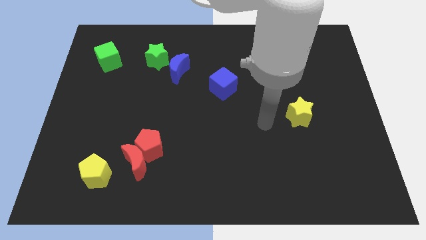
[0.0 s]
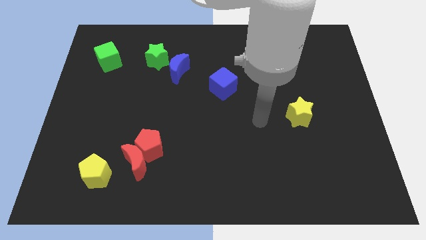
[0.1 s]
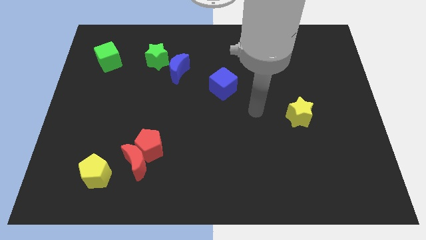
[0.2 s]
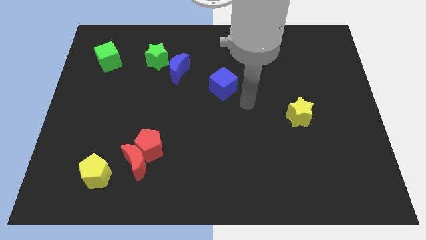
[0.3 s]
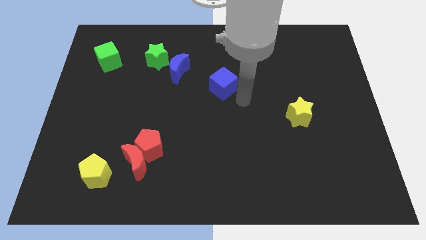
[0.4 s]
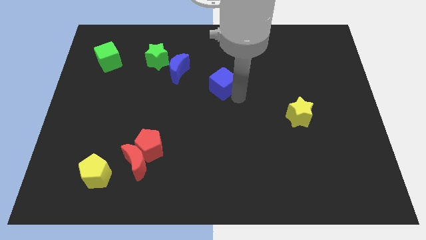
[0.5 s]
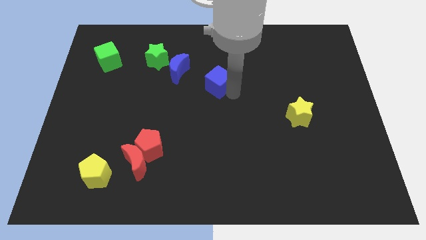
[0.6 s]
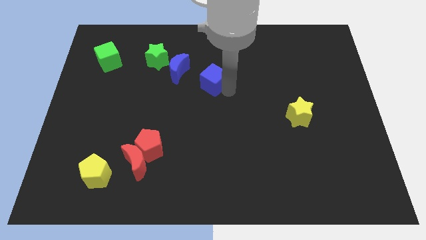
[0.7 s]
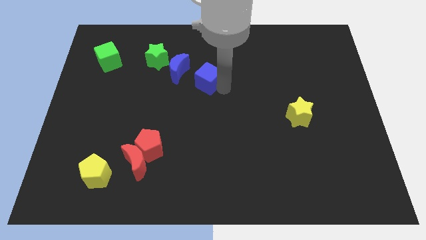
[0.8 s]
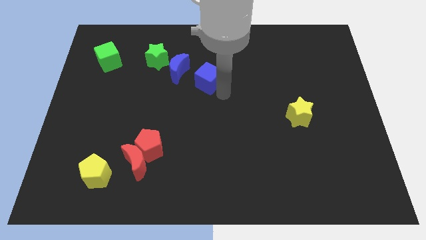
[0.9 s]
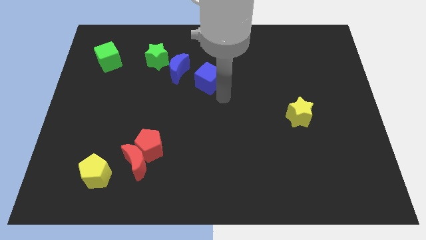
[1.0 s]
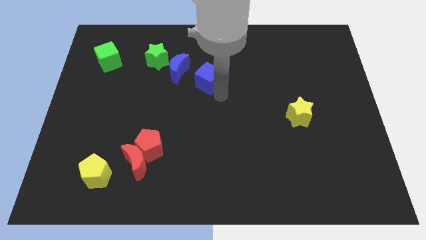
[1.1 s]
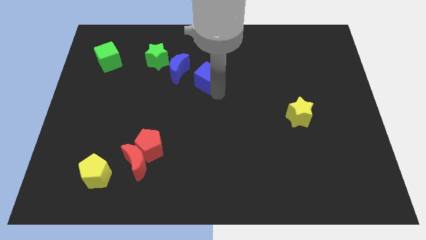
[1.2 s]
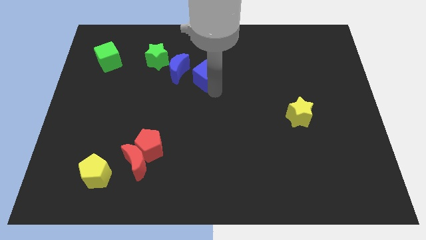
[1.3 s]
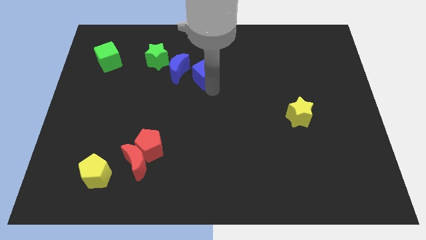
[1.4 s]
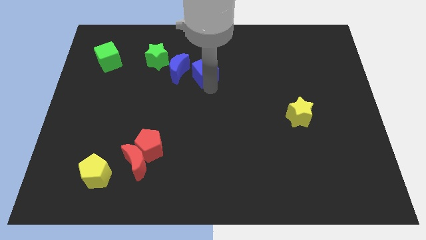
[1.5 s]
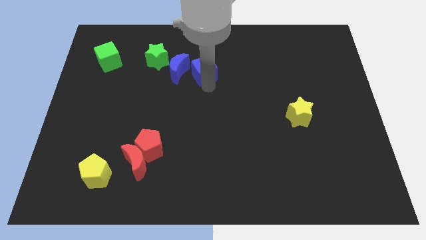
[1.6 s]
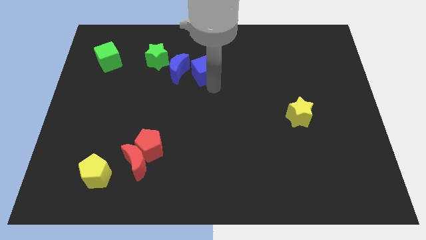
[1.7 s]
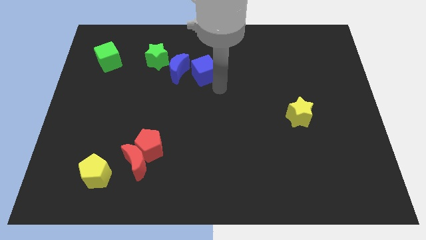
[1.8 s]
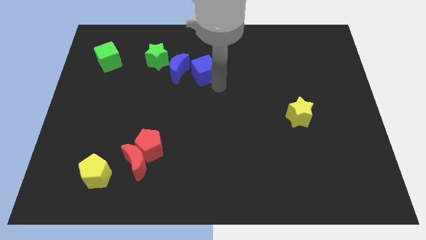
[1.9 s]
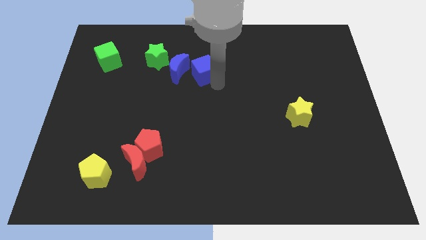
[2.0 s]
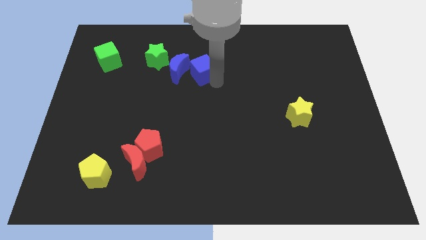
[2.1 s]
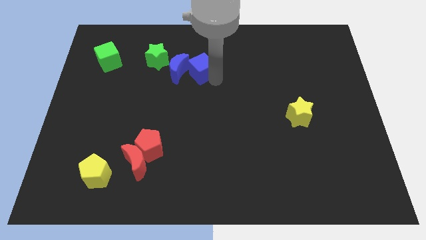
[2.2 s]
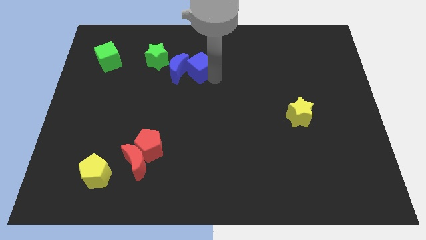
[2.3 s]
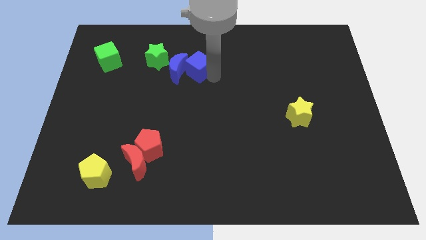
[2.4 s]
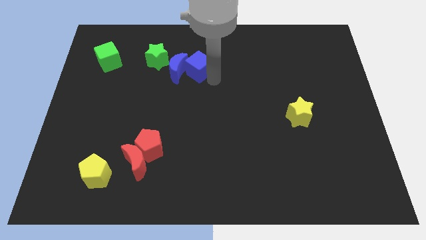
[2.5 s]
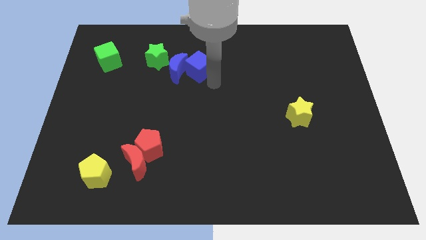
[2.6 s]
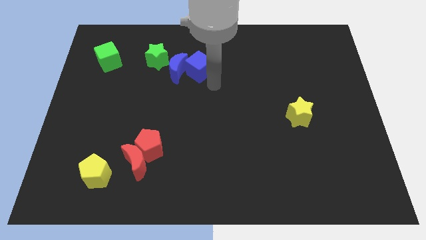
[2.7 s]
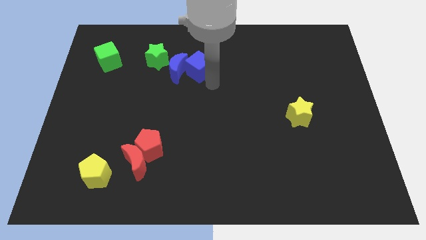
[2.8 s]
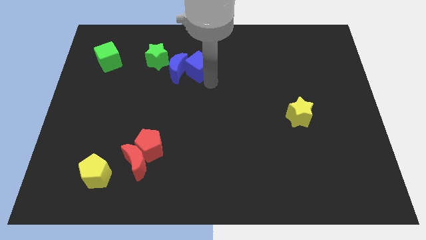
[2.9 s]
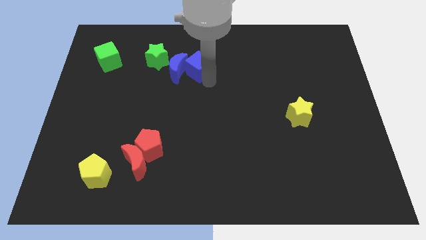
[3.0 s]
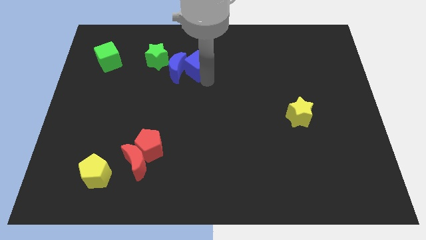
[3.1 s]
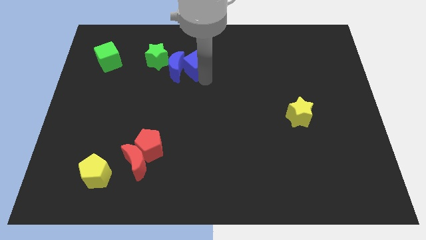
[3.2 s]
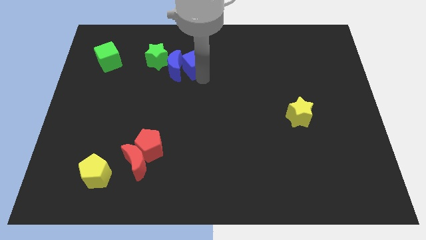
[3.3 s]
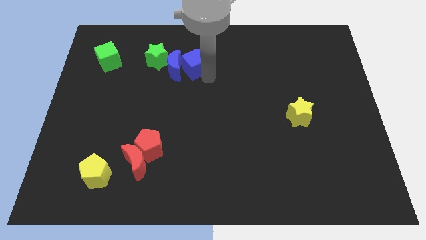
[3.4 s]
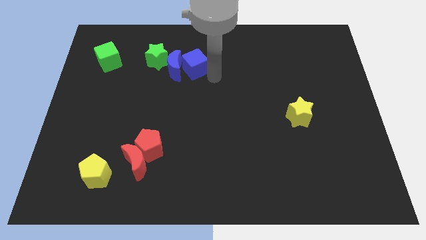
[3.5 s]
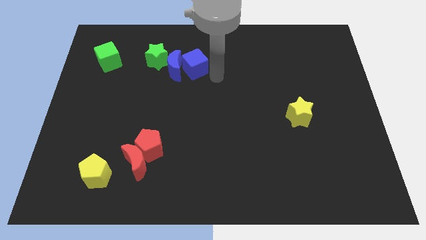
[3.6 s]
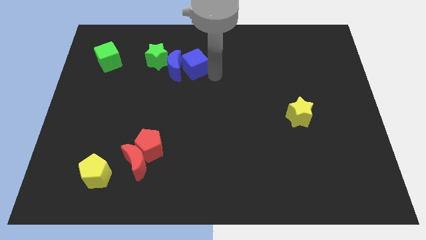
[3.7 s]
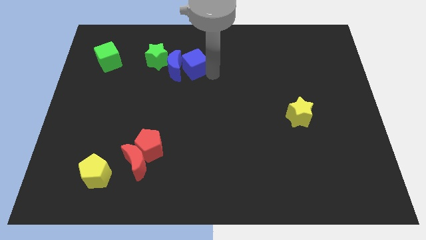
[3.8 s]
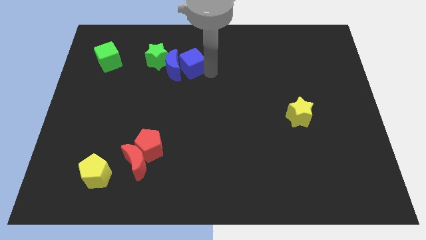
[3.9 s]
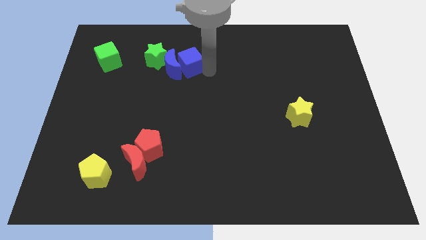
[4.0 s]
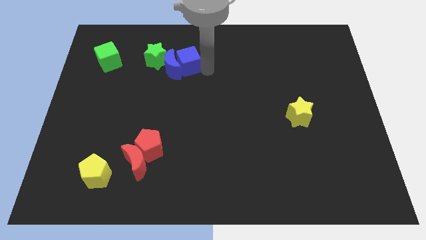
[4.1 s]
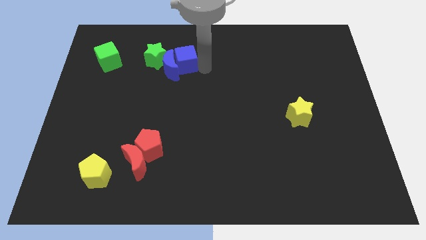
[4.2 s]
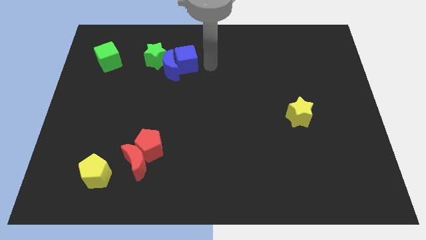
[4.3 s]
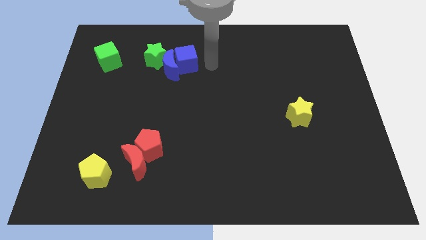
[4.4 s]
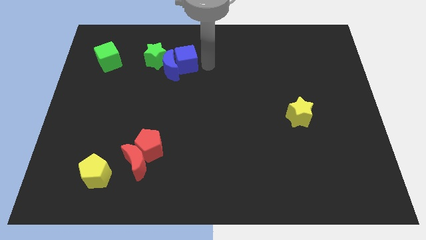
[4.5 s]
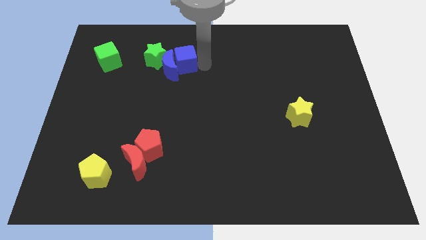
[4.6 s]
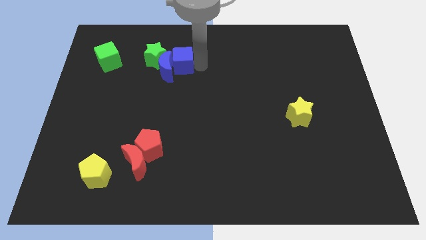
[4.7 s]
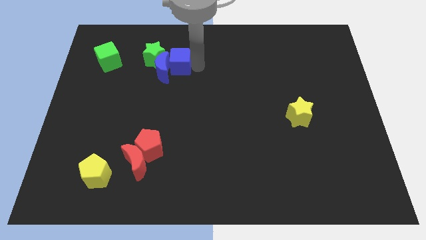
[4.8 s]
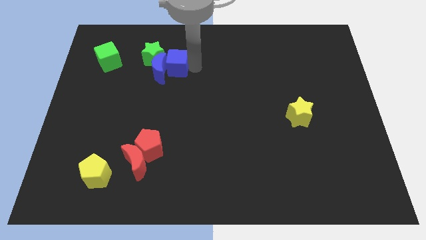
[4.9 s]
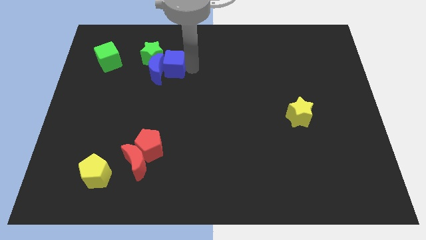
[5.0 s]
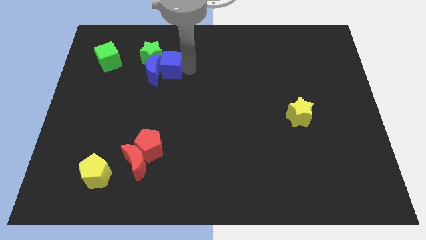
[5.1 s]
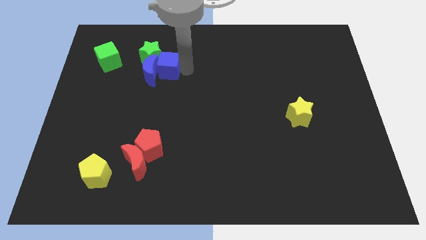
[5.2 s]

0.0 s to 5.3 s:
slide the blue cube to the green star

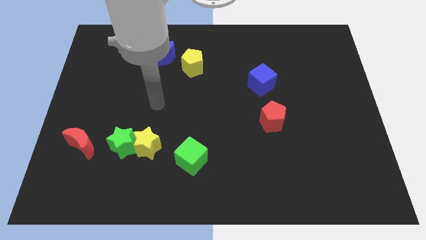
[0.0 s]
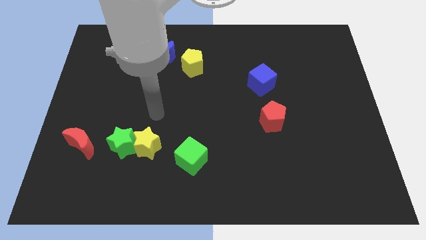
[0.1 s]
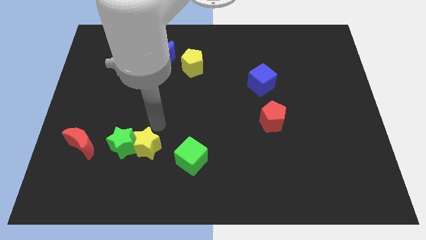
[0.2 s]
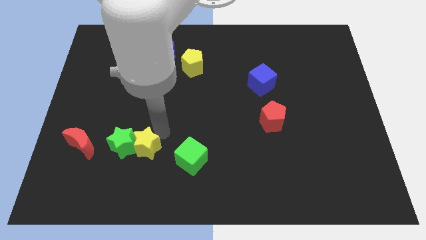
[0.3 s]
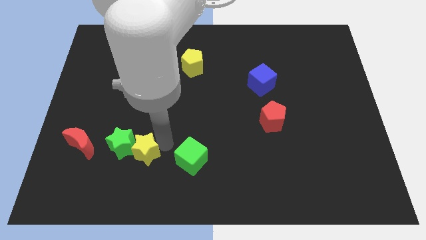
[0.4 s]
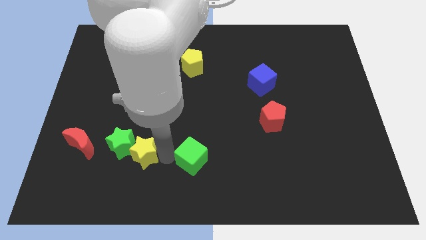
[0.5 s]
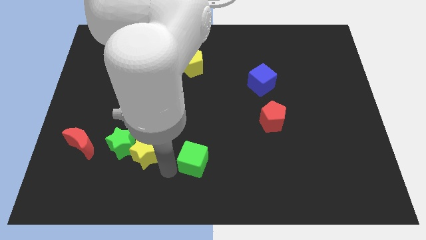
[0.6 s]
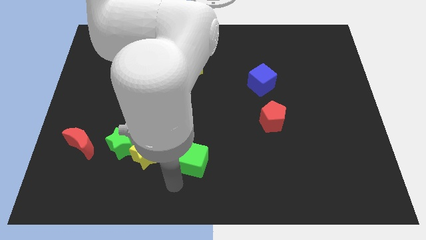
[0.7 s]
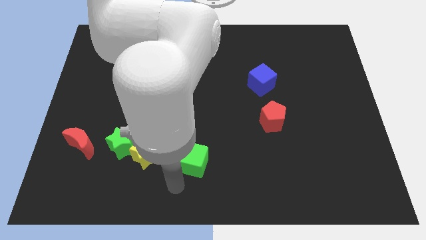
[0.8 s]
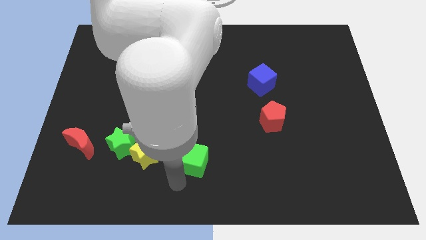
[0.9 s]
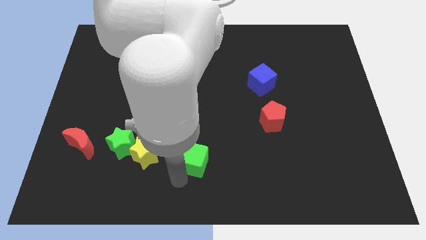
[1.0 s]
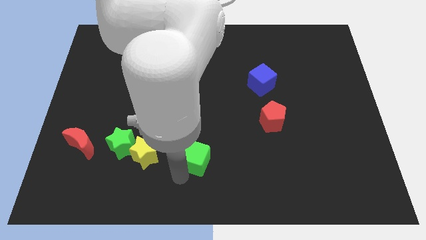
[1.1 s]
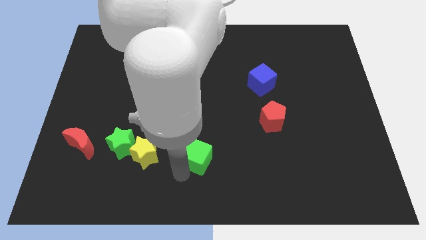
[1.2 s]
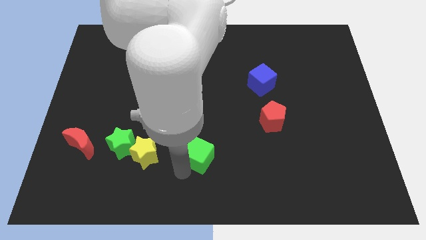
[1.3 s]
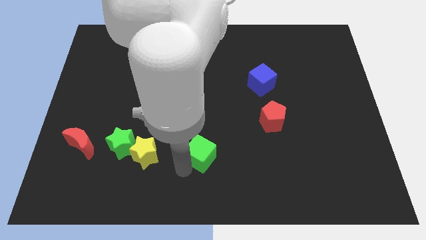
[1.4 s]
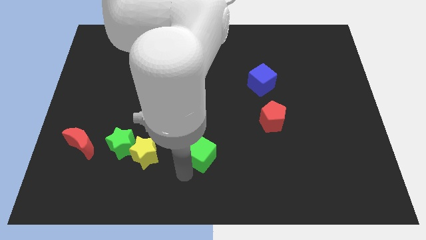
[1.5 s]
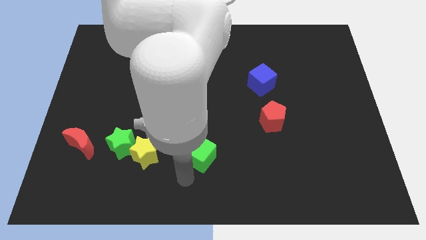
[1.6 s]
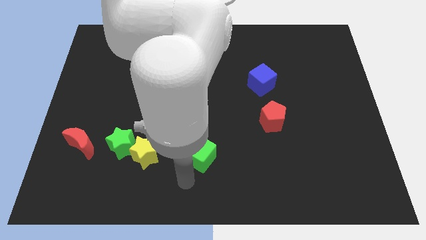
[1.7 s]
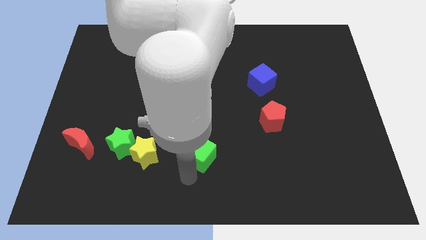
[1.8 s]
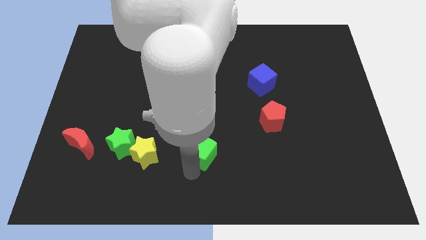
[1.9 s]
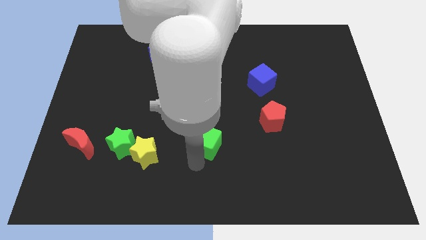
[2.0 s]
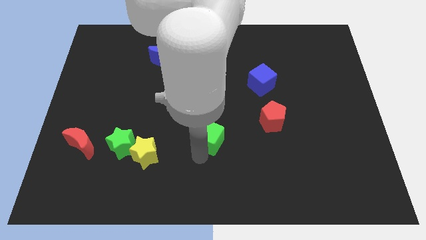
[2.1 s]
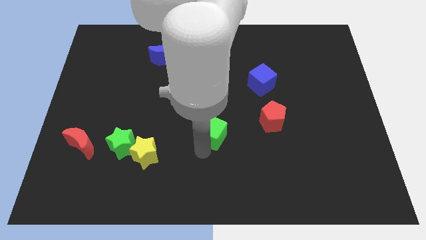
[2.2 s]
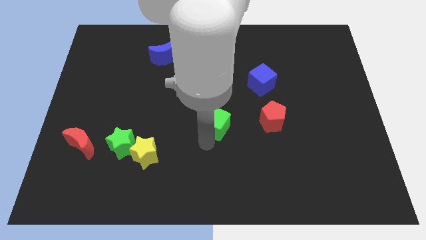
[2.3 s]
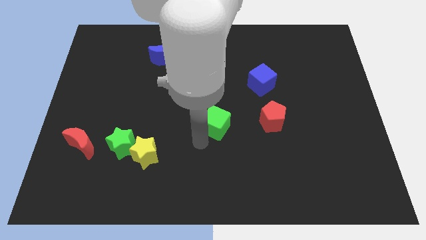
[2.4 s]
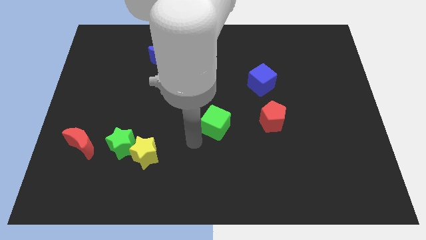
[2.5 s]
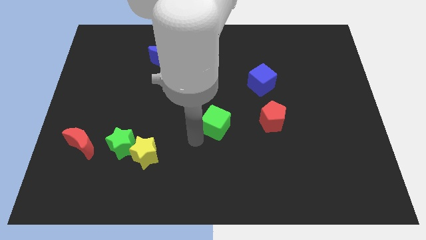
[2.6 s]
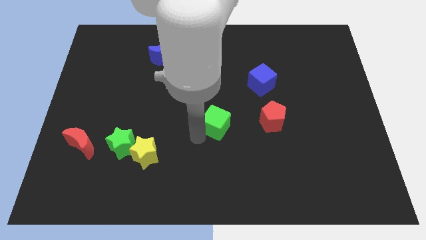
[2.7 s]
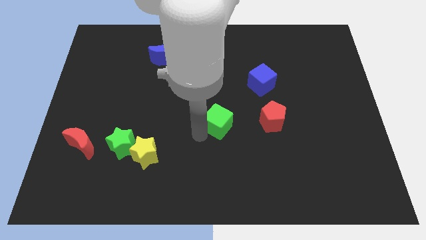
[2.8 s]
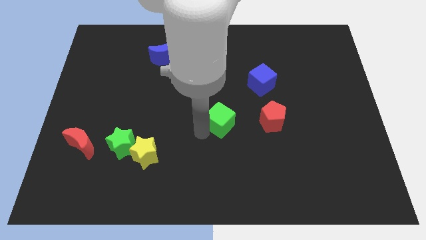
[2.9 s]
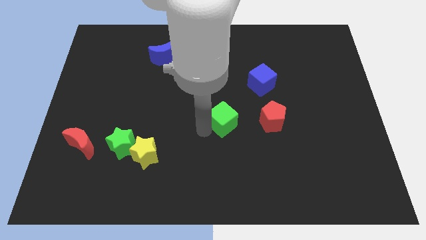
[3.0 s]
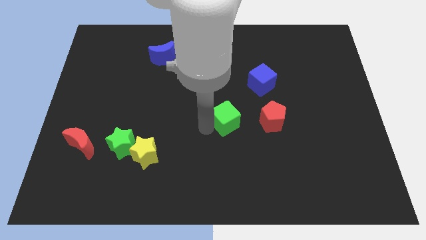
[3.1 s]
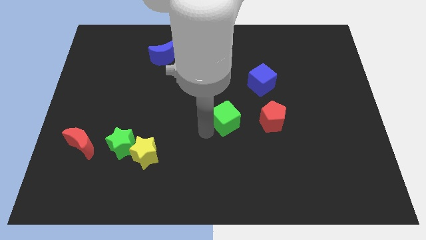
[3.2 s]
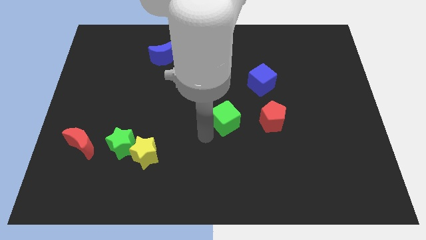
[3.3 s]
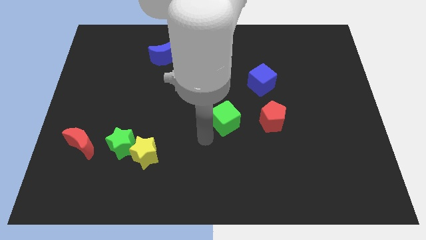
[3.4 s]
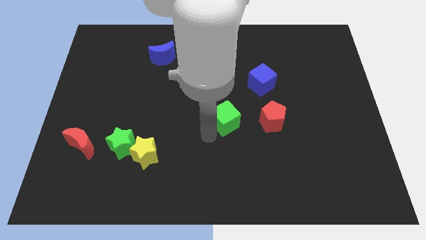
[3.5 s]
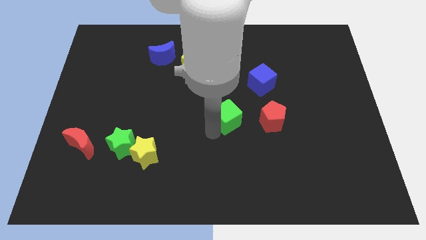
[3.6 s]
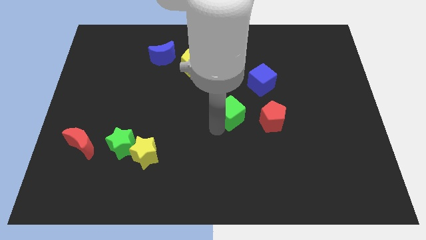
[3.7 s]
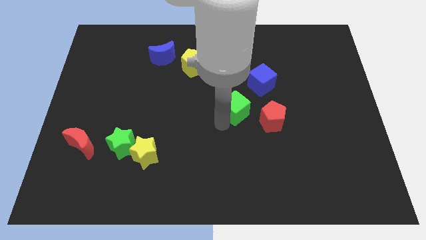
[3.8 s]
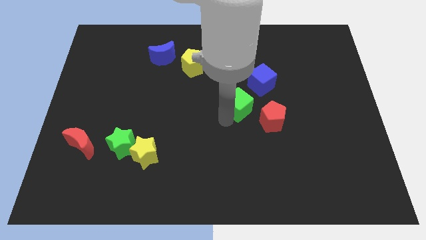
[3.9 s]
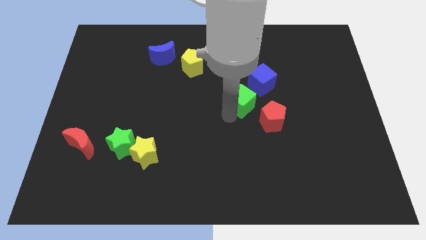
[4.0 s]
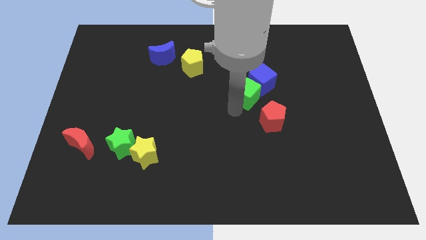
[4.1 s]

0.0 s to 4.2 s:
slide the green cube next to the blue cube
